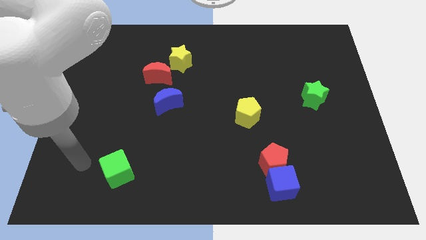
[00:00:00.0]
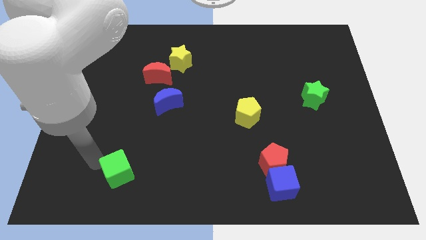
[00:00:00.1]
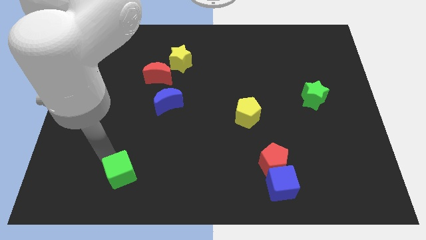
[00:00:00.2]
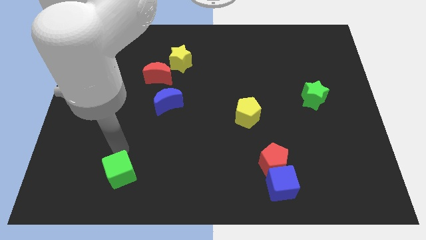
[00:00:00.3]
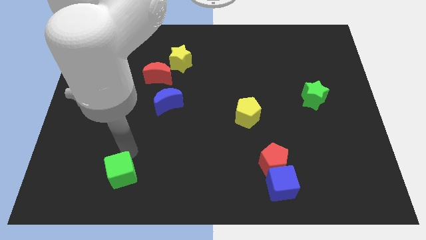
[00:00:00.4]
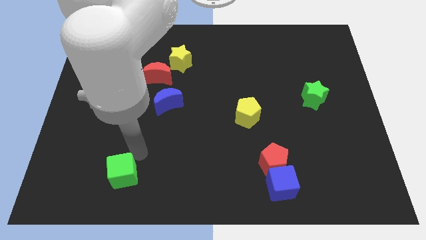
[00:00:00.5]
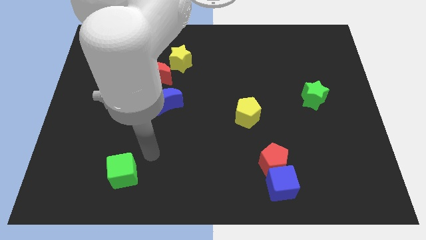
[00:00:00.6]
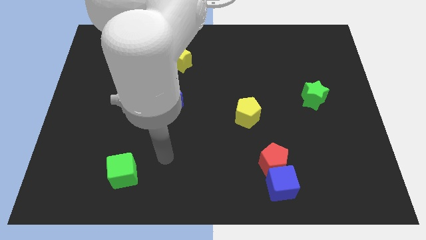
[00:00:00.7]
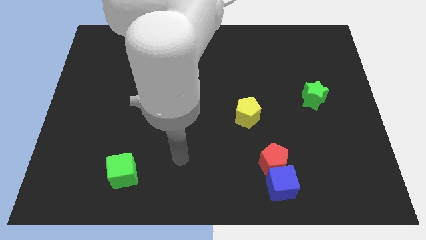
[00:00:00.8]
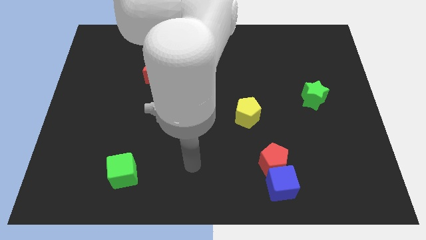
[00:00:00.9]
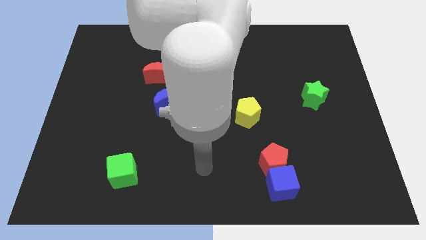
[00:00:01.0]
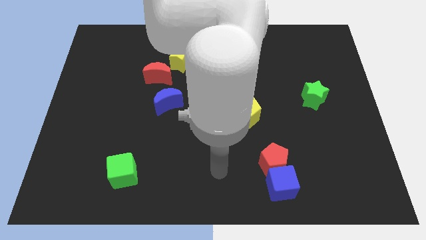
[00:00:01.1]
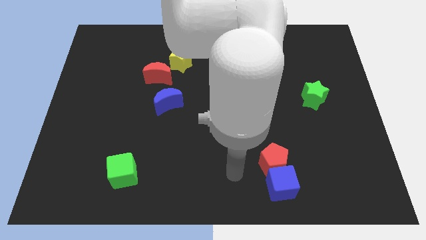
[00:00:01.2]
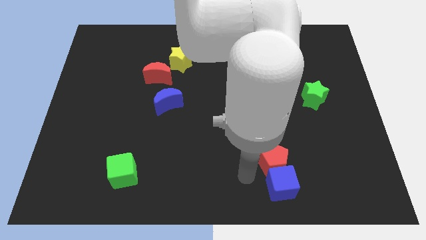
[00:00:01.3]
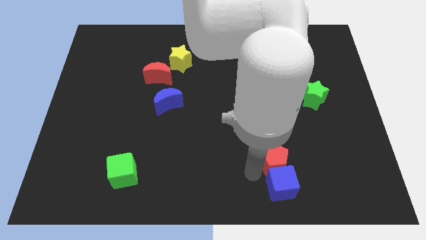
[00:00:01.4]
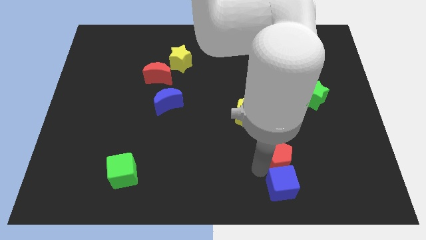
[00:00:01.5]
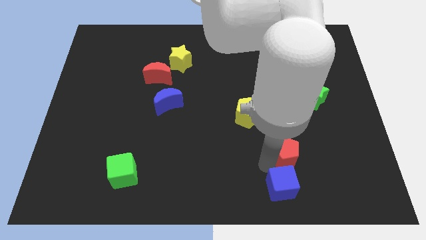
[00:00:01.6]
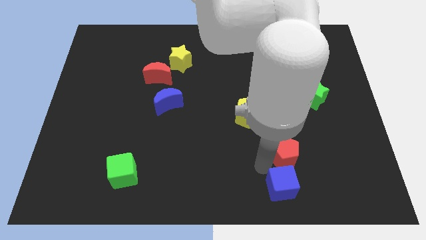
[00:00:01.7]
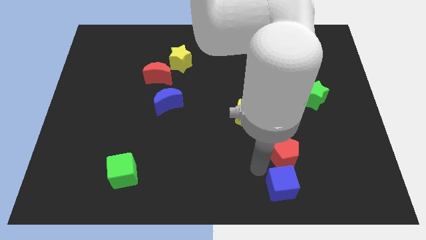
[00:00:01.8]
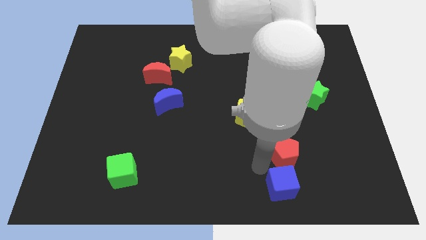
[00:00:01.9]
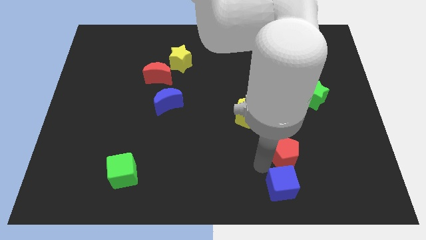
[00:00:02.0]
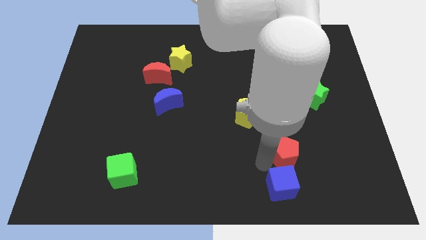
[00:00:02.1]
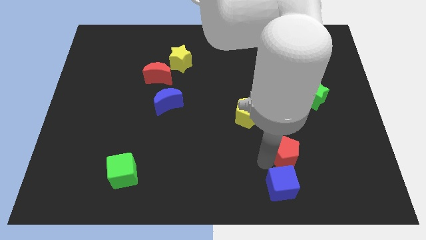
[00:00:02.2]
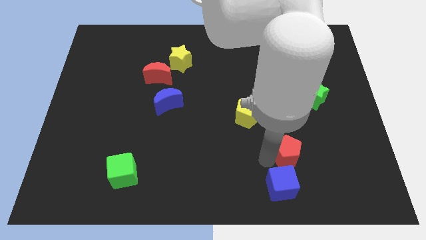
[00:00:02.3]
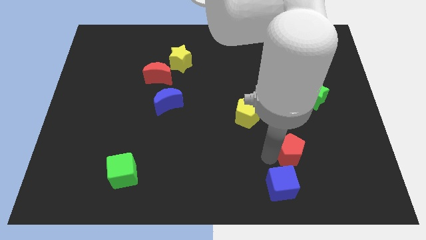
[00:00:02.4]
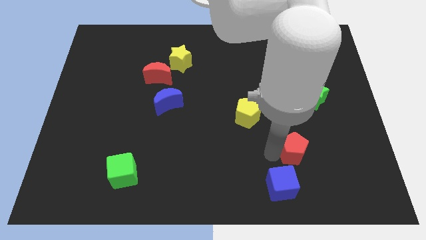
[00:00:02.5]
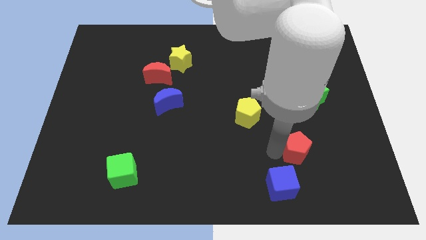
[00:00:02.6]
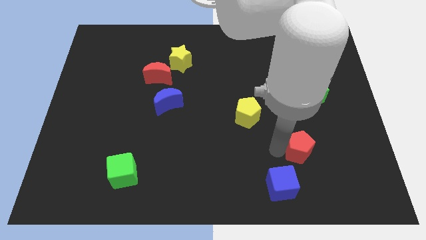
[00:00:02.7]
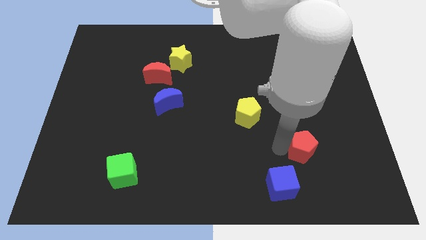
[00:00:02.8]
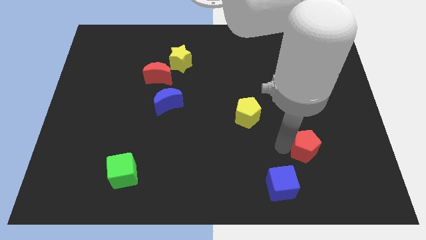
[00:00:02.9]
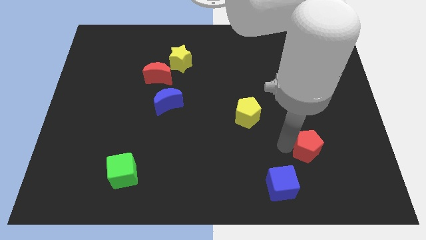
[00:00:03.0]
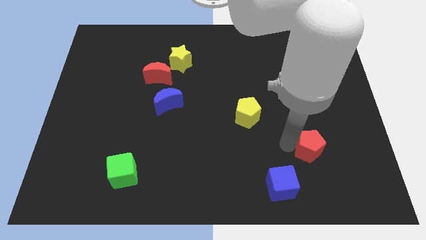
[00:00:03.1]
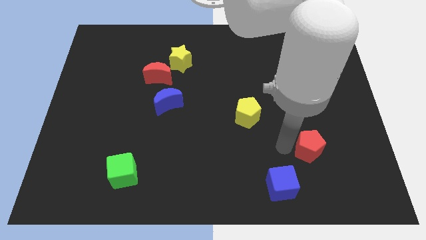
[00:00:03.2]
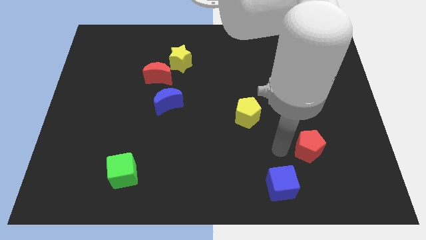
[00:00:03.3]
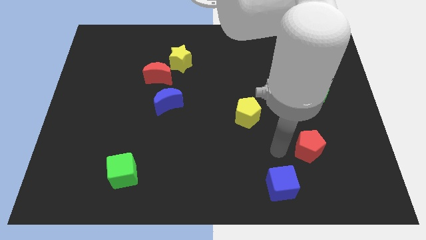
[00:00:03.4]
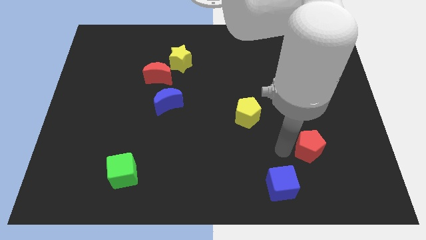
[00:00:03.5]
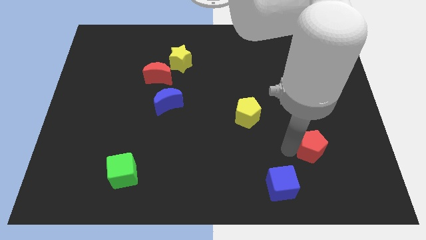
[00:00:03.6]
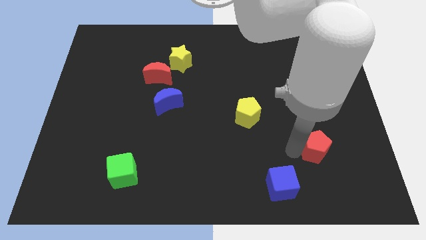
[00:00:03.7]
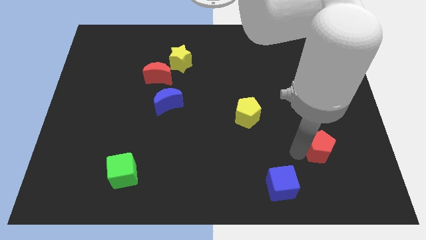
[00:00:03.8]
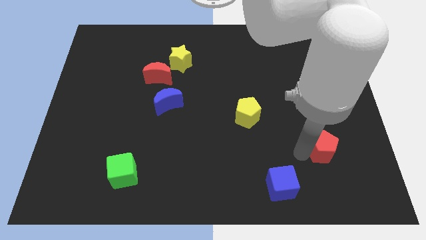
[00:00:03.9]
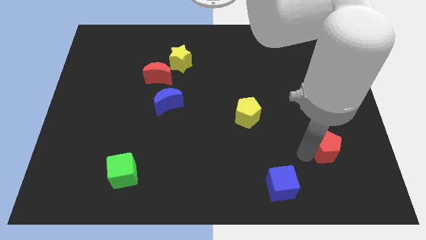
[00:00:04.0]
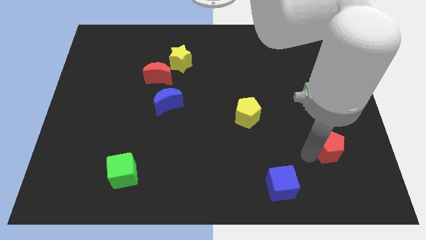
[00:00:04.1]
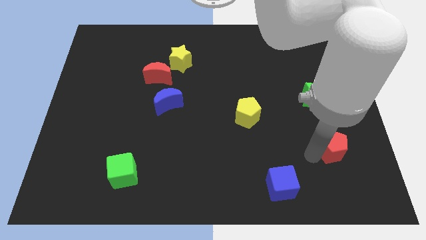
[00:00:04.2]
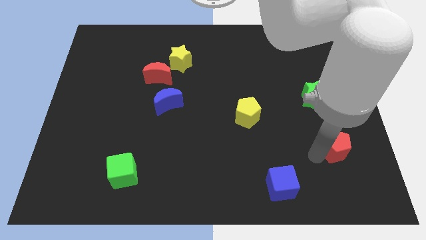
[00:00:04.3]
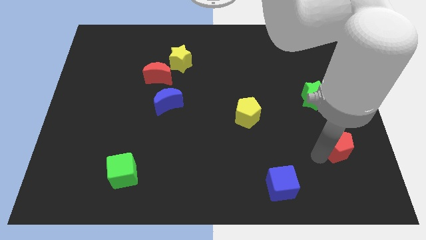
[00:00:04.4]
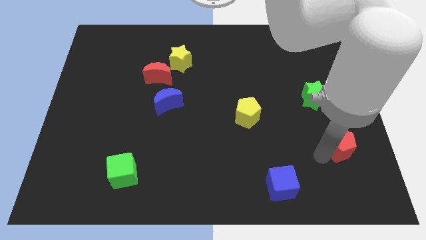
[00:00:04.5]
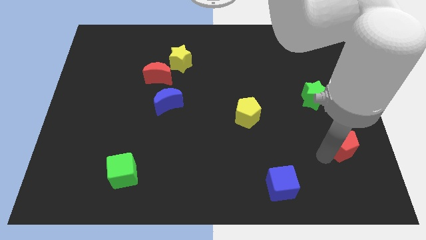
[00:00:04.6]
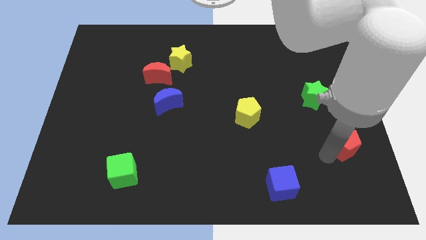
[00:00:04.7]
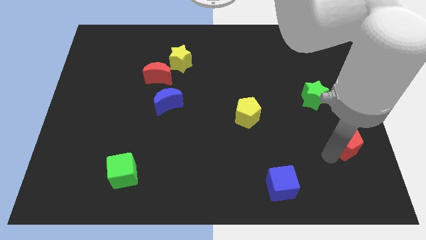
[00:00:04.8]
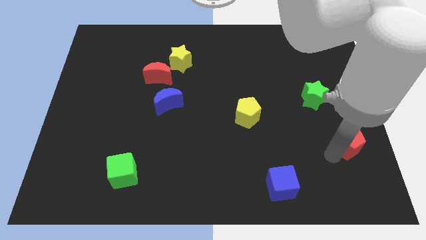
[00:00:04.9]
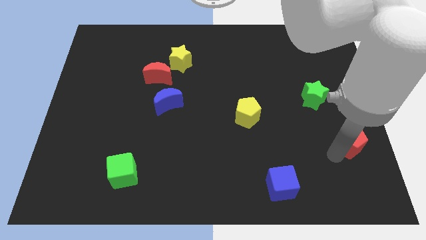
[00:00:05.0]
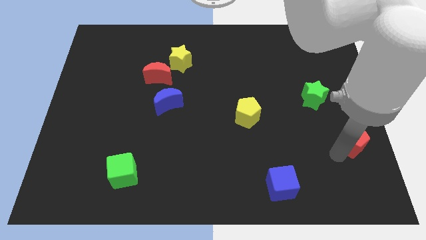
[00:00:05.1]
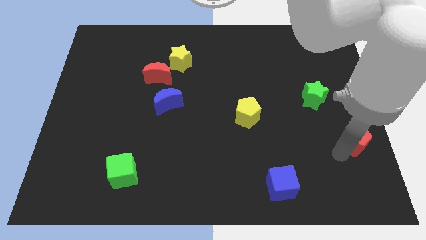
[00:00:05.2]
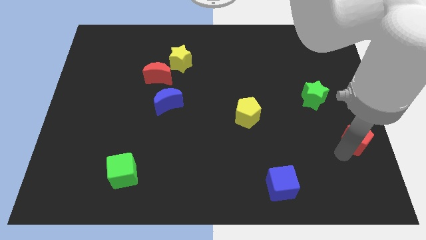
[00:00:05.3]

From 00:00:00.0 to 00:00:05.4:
push the red pentagon to the right side of the board

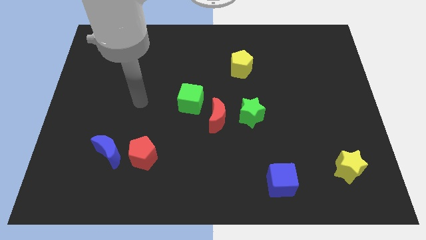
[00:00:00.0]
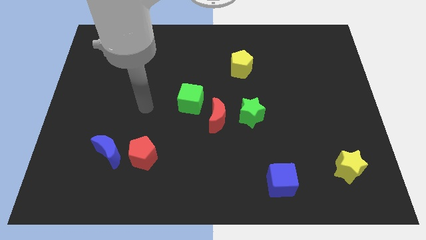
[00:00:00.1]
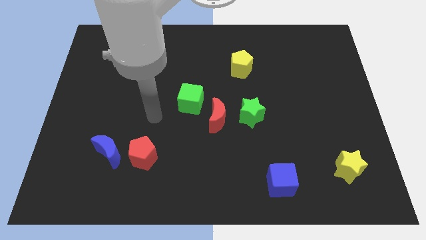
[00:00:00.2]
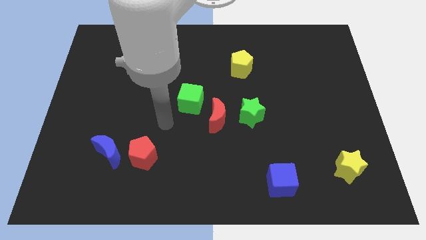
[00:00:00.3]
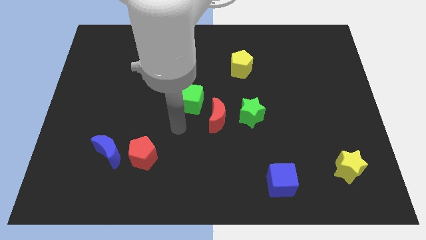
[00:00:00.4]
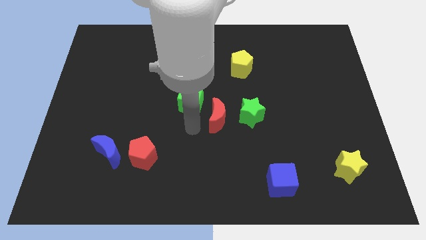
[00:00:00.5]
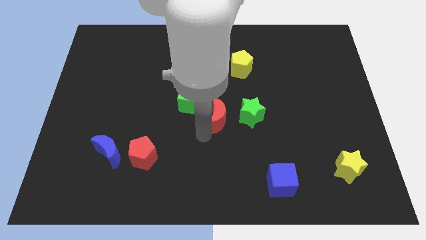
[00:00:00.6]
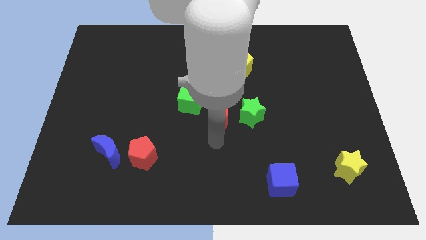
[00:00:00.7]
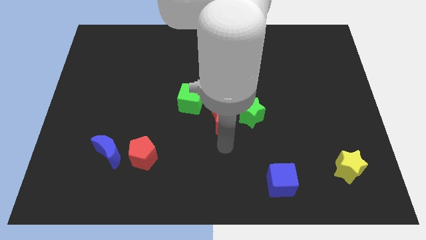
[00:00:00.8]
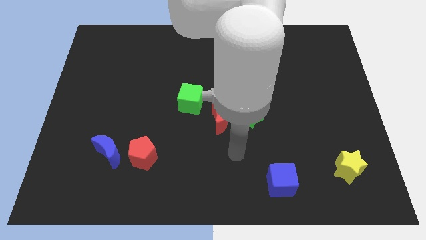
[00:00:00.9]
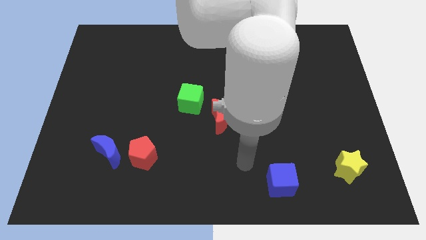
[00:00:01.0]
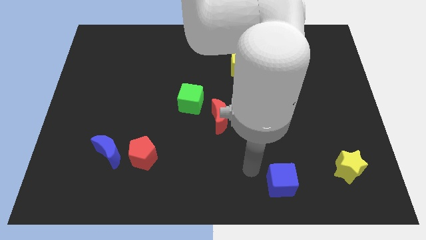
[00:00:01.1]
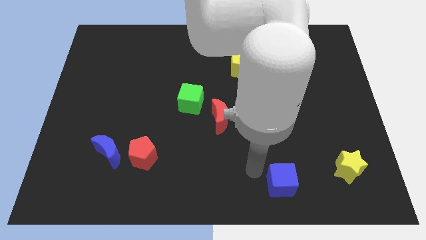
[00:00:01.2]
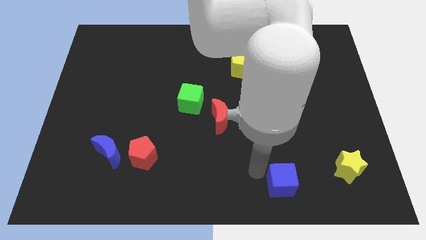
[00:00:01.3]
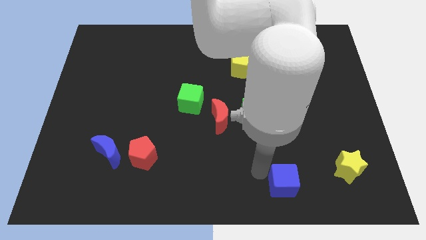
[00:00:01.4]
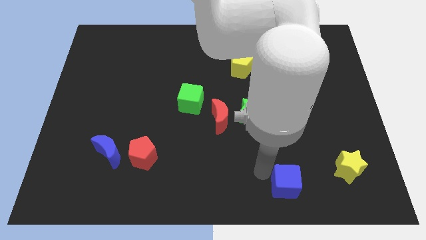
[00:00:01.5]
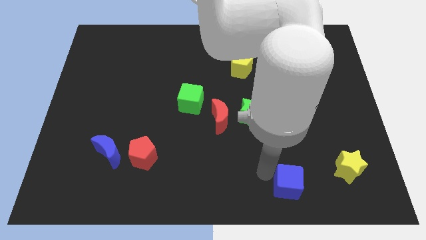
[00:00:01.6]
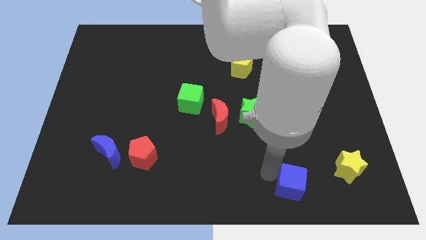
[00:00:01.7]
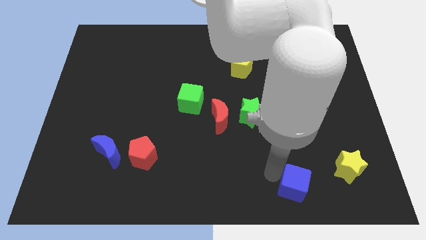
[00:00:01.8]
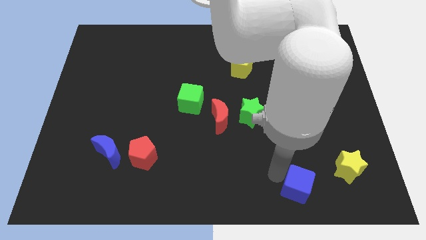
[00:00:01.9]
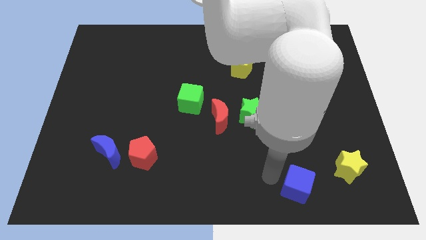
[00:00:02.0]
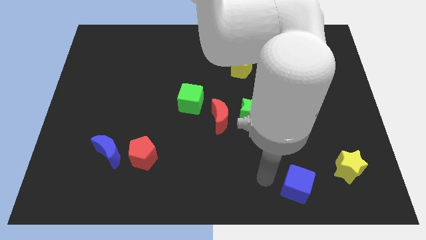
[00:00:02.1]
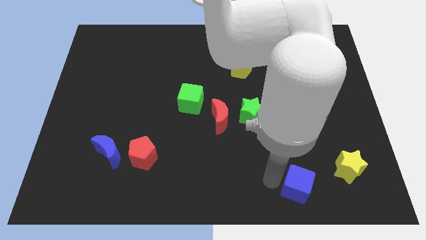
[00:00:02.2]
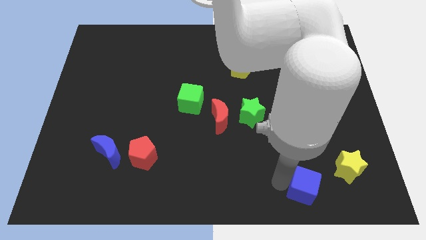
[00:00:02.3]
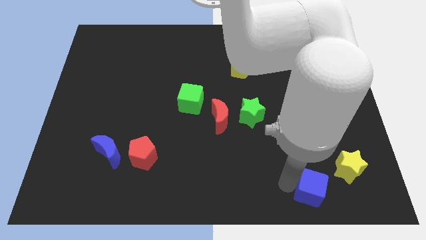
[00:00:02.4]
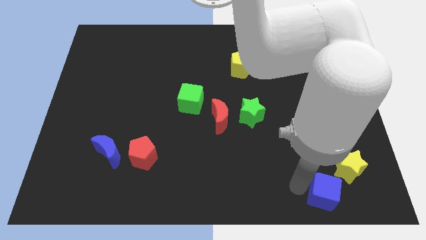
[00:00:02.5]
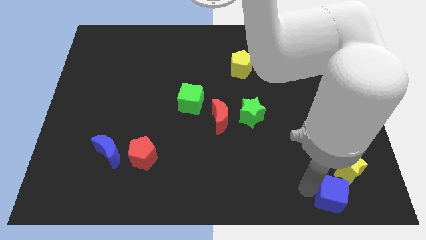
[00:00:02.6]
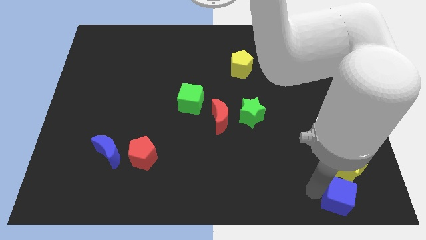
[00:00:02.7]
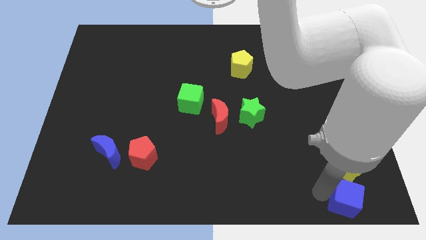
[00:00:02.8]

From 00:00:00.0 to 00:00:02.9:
push the blue cube to the lower right corner
